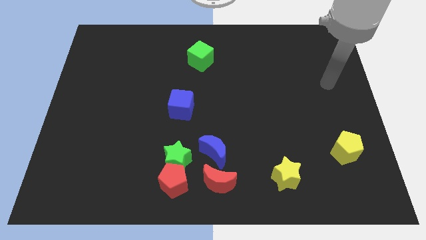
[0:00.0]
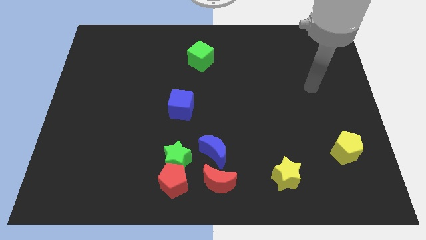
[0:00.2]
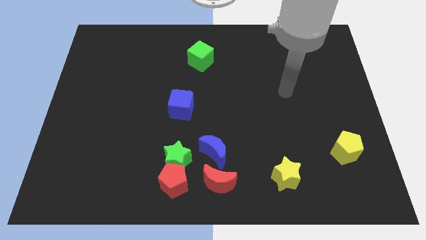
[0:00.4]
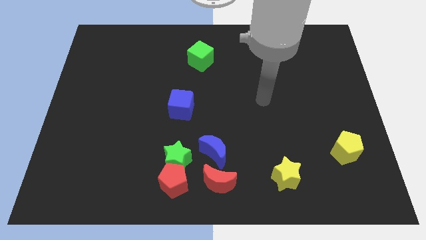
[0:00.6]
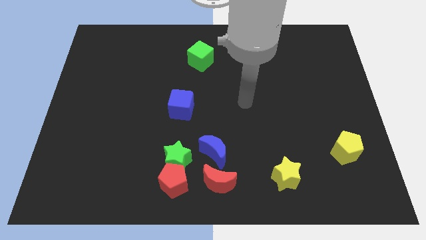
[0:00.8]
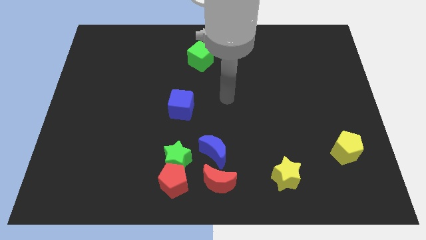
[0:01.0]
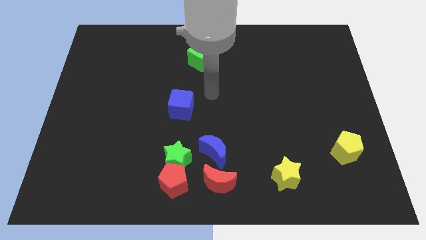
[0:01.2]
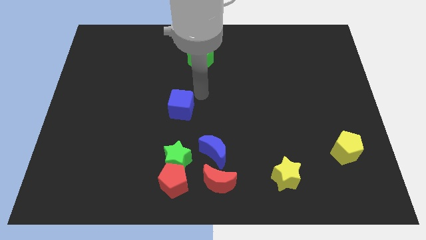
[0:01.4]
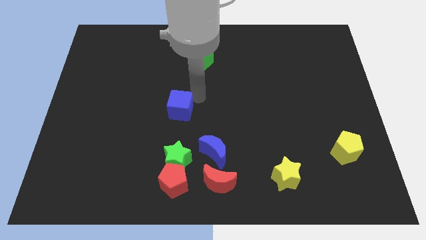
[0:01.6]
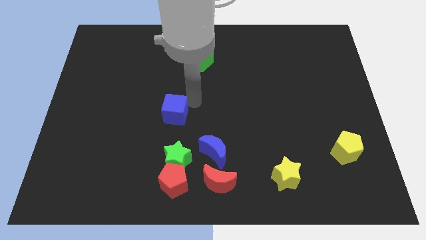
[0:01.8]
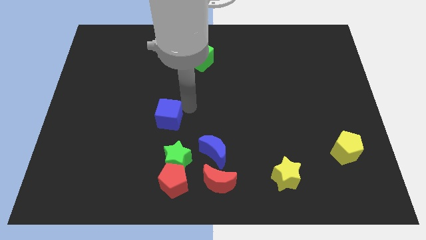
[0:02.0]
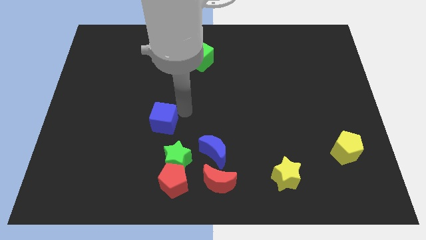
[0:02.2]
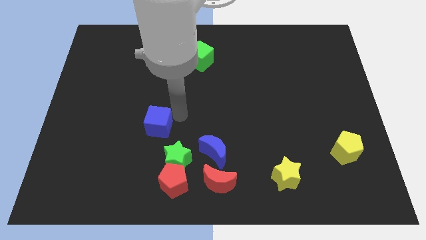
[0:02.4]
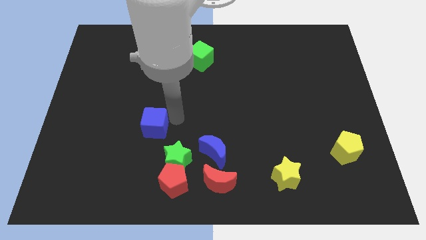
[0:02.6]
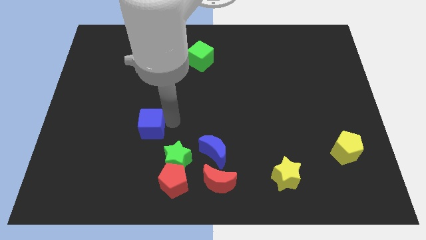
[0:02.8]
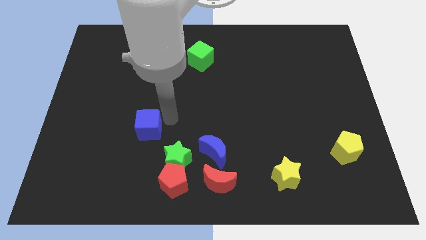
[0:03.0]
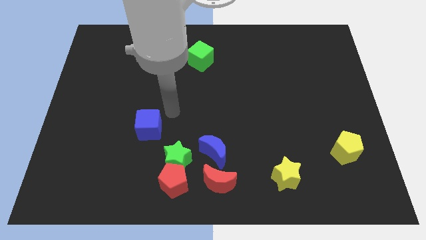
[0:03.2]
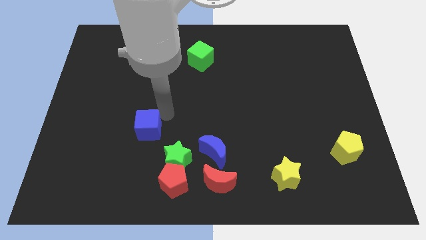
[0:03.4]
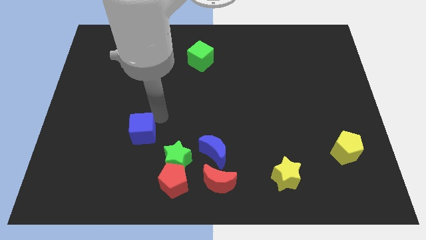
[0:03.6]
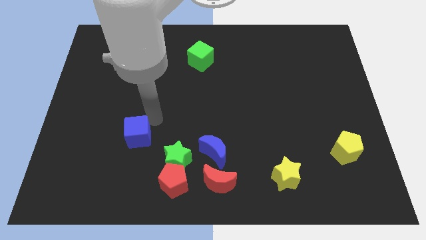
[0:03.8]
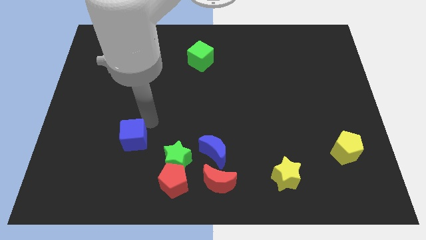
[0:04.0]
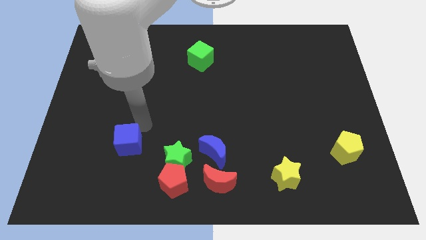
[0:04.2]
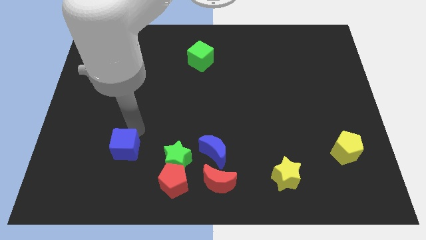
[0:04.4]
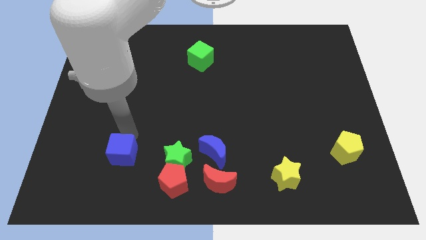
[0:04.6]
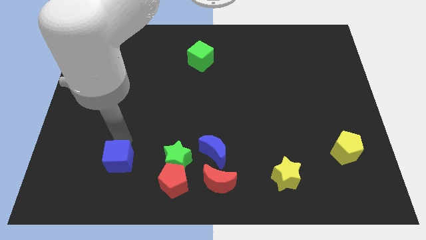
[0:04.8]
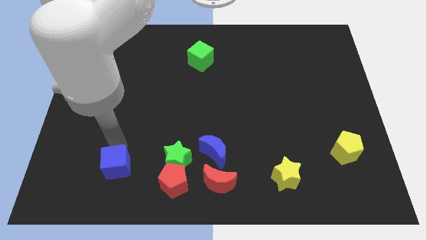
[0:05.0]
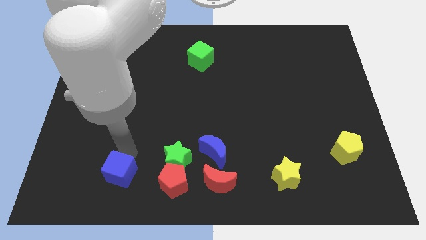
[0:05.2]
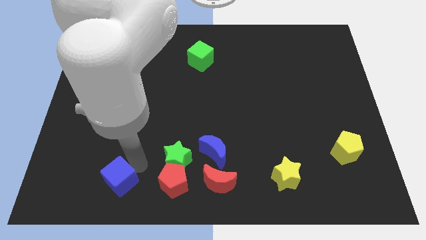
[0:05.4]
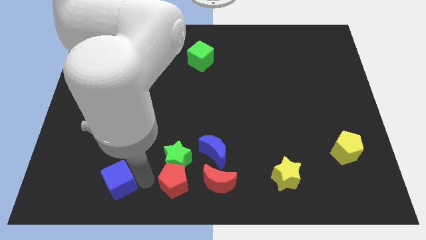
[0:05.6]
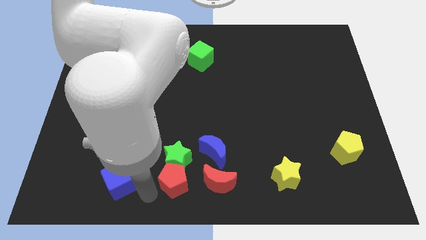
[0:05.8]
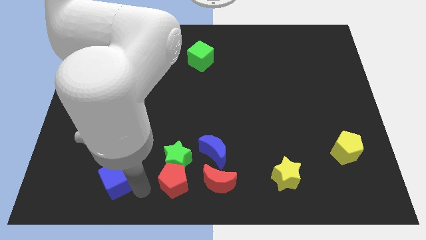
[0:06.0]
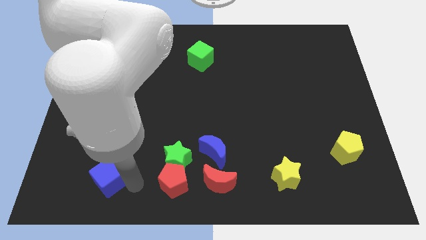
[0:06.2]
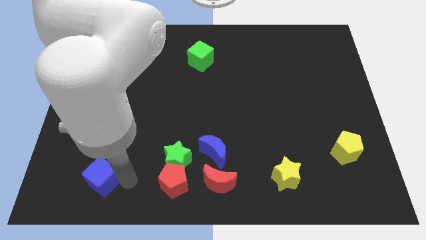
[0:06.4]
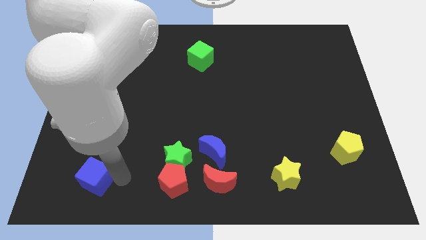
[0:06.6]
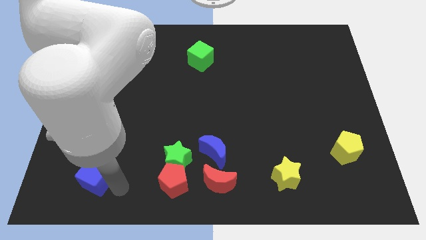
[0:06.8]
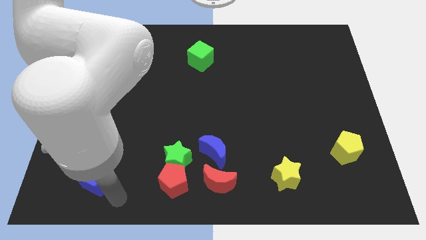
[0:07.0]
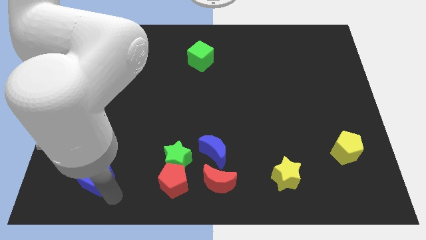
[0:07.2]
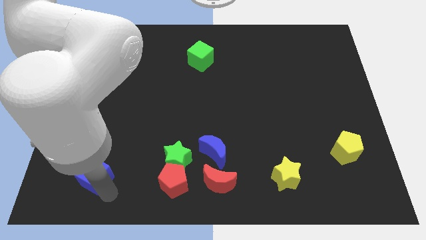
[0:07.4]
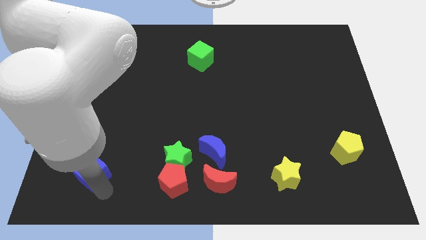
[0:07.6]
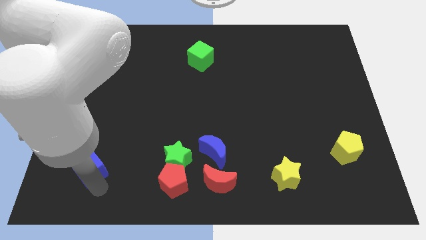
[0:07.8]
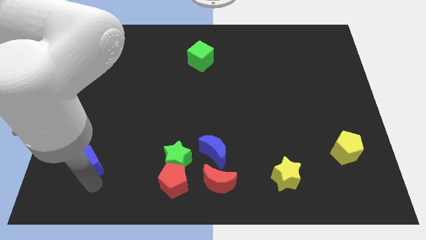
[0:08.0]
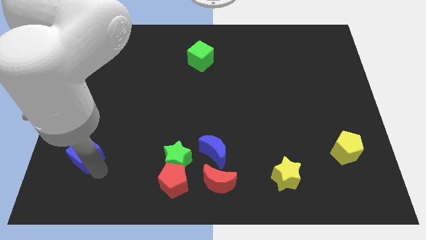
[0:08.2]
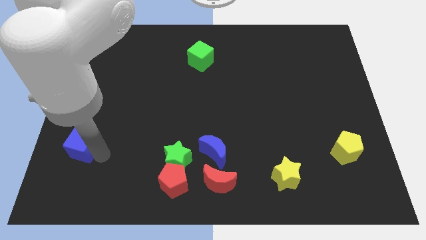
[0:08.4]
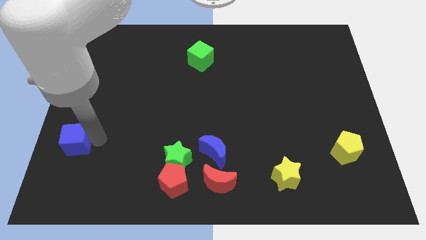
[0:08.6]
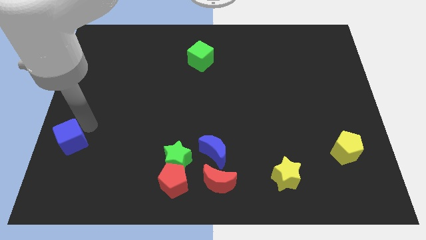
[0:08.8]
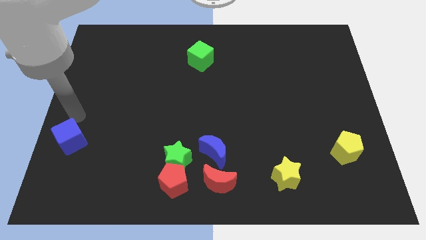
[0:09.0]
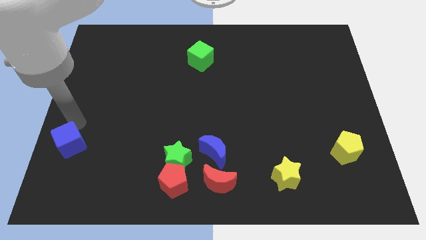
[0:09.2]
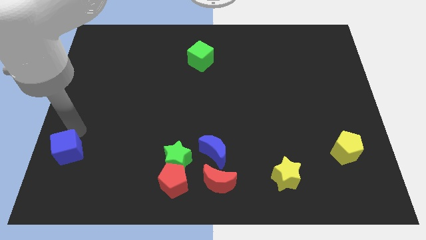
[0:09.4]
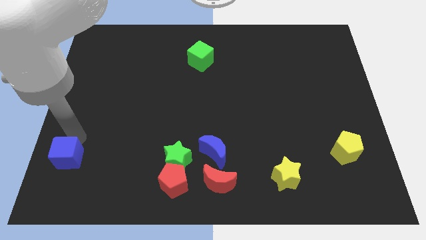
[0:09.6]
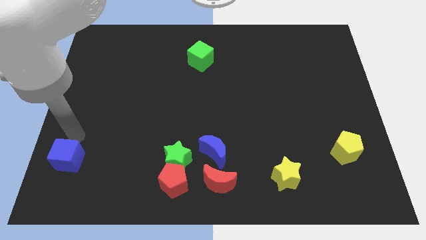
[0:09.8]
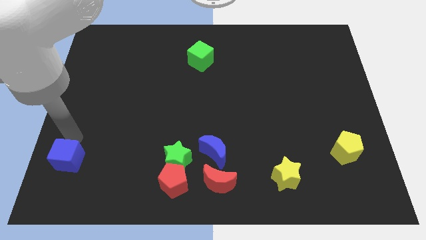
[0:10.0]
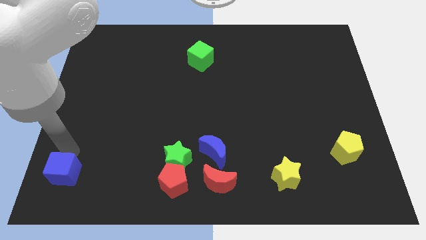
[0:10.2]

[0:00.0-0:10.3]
push the blue cube to the lower left corner

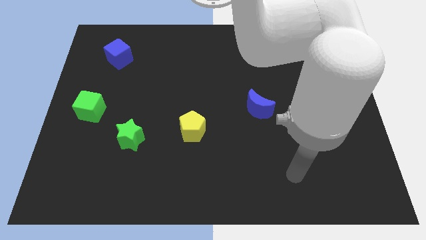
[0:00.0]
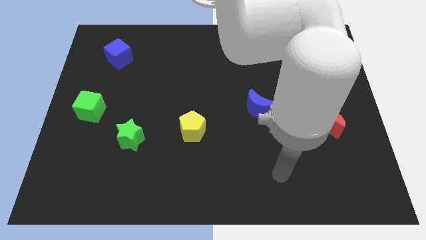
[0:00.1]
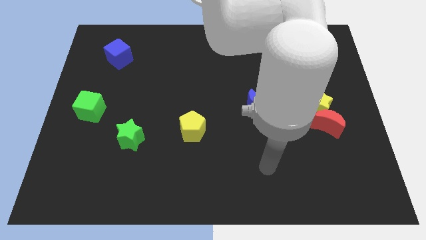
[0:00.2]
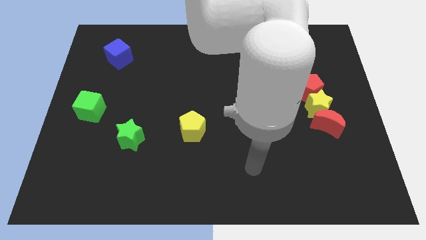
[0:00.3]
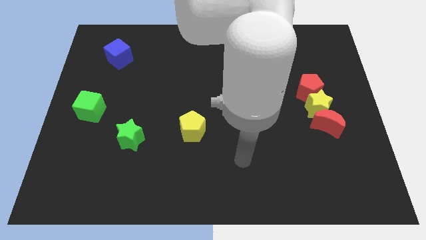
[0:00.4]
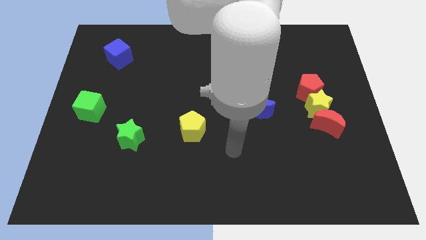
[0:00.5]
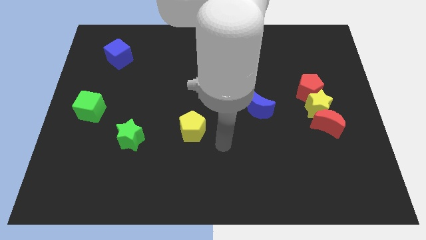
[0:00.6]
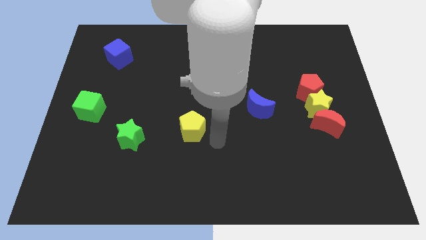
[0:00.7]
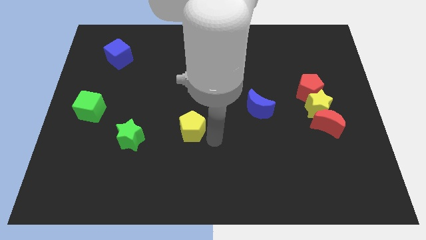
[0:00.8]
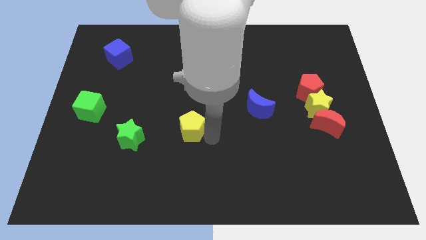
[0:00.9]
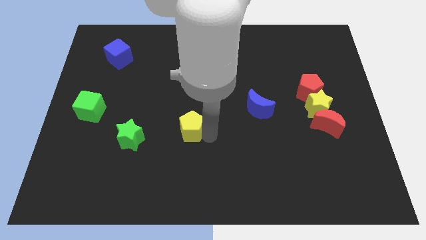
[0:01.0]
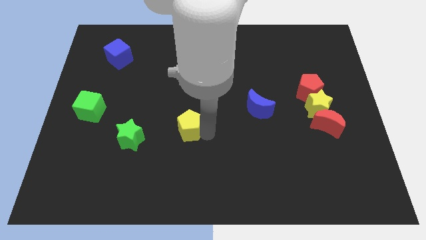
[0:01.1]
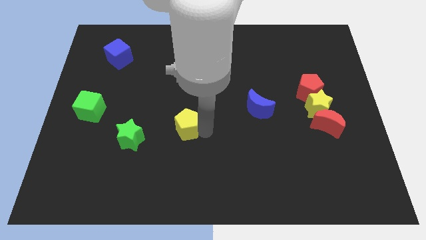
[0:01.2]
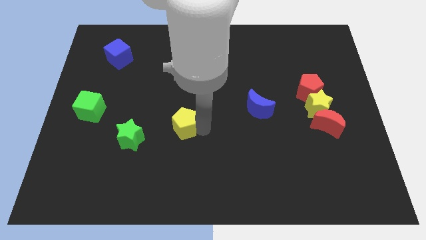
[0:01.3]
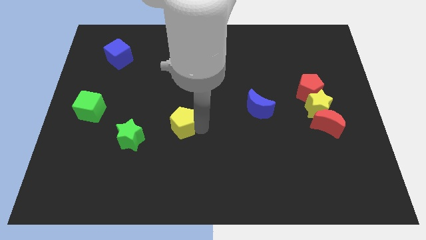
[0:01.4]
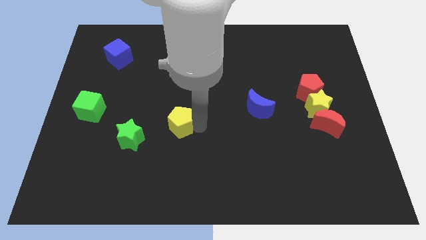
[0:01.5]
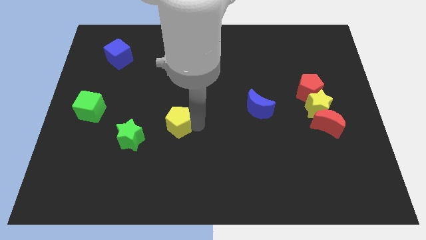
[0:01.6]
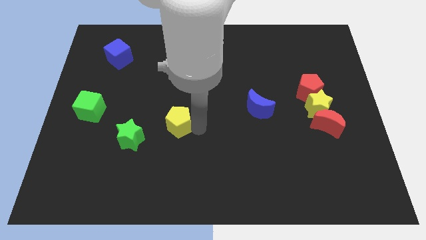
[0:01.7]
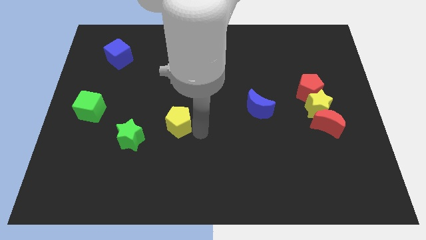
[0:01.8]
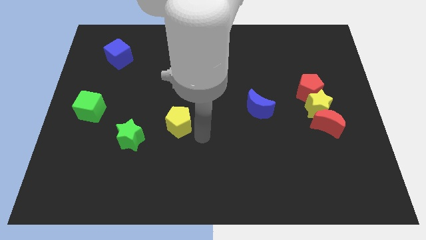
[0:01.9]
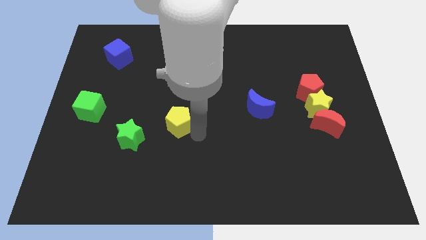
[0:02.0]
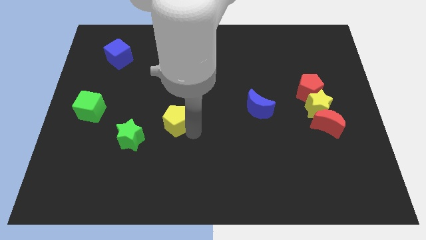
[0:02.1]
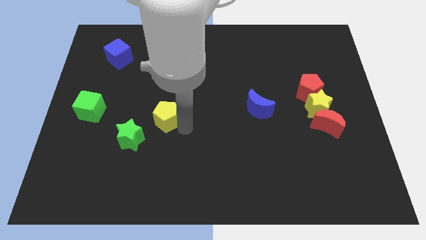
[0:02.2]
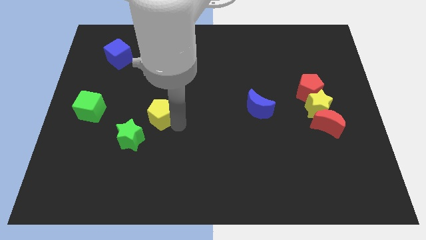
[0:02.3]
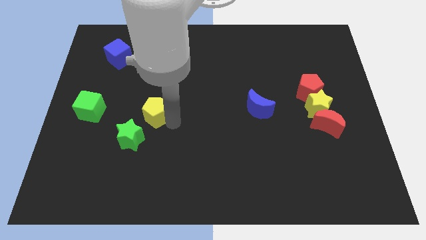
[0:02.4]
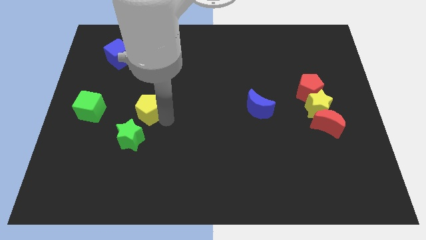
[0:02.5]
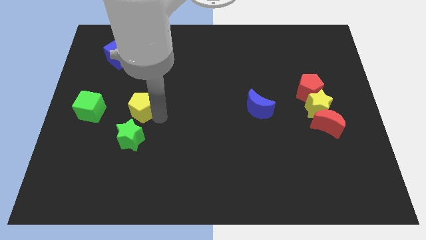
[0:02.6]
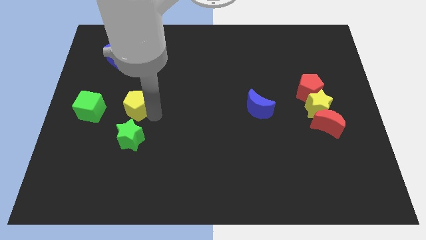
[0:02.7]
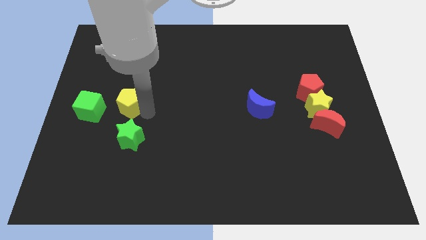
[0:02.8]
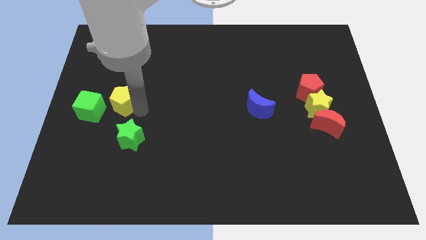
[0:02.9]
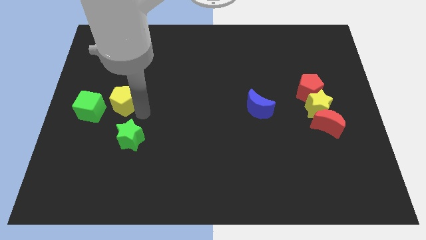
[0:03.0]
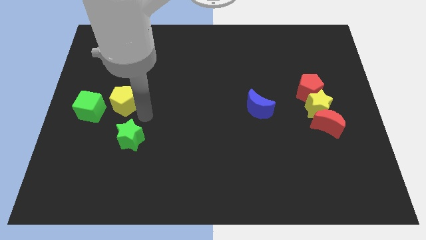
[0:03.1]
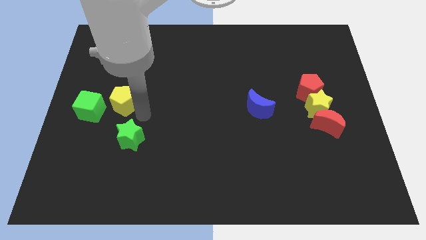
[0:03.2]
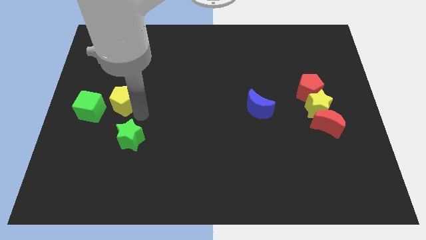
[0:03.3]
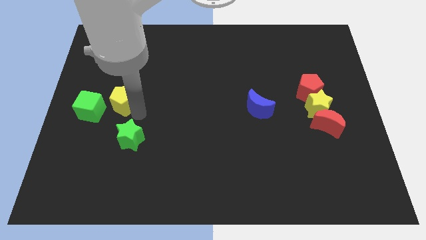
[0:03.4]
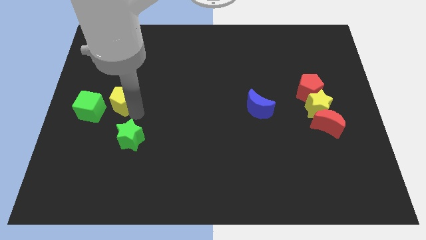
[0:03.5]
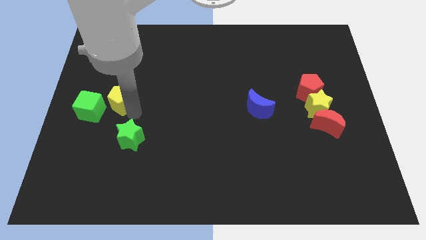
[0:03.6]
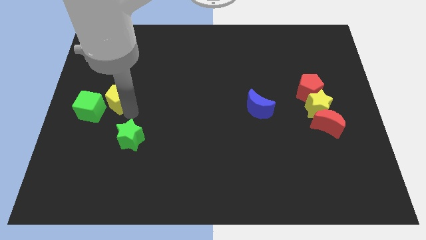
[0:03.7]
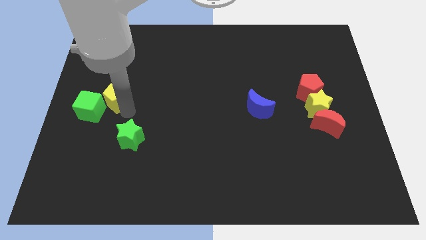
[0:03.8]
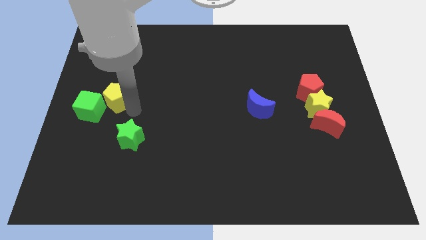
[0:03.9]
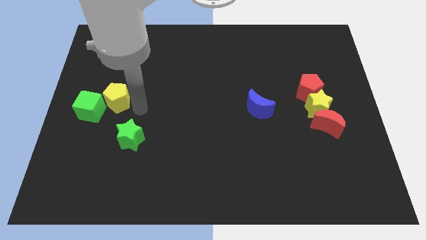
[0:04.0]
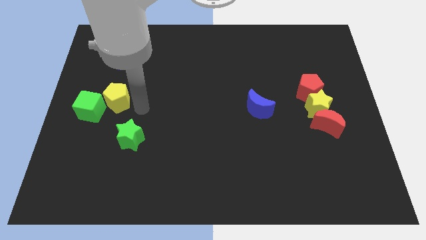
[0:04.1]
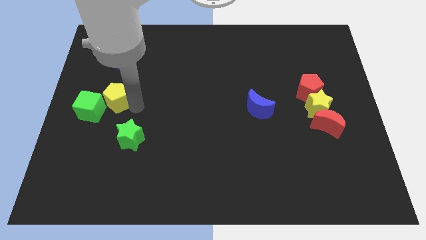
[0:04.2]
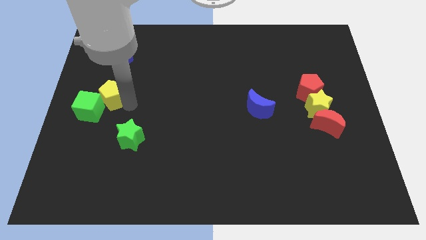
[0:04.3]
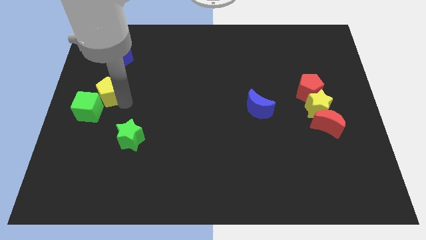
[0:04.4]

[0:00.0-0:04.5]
push the yellow pentagon to the left side of the board
